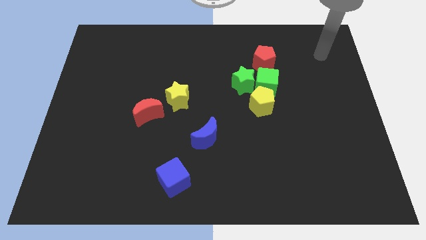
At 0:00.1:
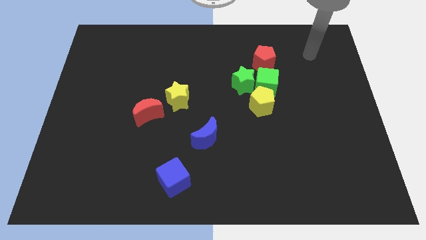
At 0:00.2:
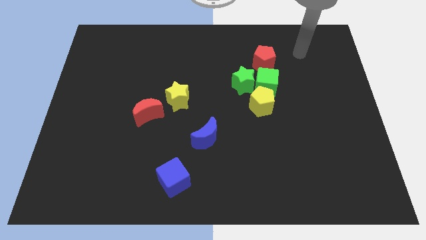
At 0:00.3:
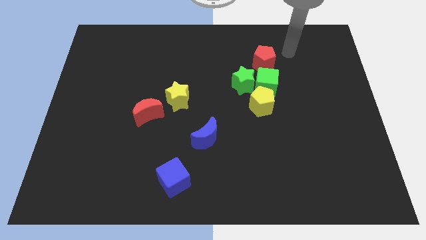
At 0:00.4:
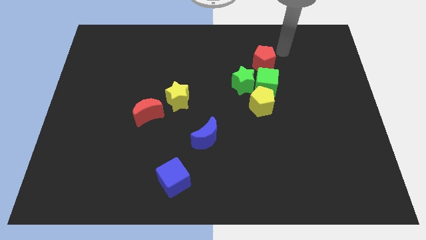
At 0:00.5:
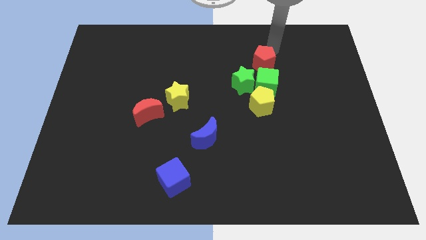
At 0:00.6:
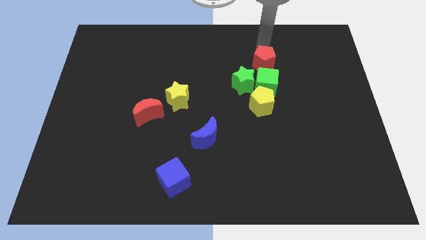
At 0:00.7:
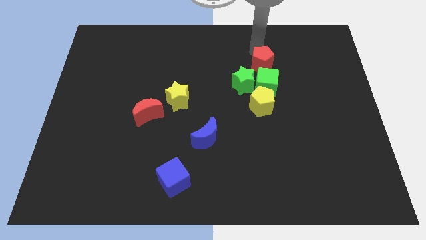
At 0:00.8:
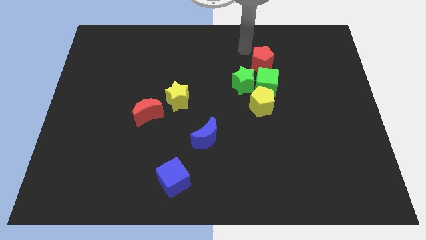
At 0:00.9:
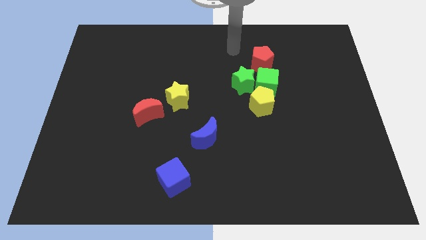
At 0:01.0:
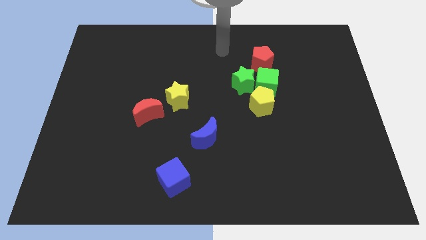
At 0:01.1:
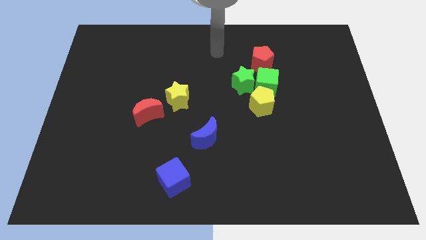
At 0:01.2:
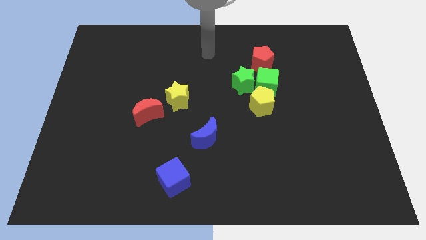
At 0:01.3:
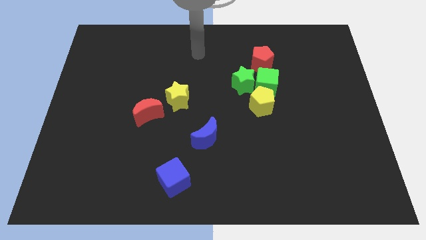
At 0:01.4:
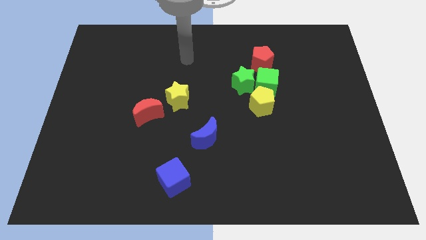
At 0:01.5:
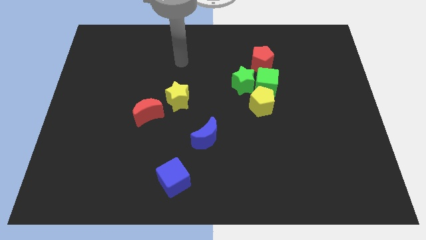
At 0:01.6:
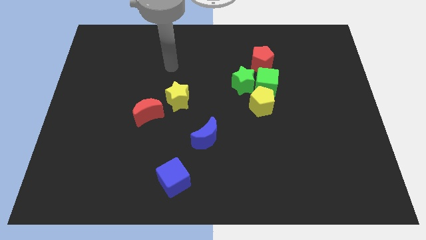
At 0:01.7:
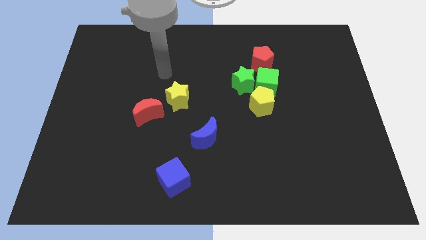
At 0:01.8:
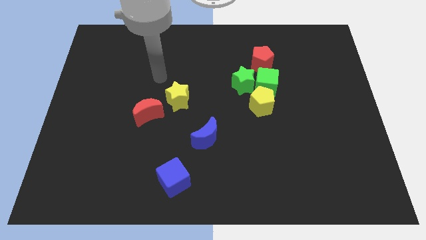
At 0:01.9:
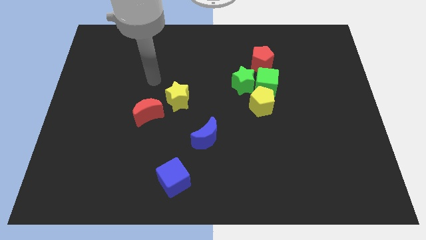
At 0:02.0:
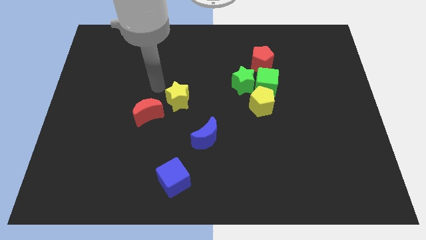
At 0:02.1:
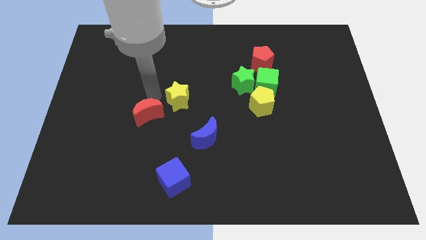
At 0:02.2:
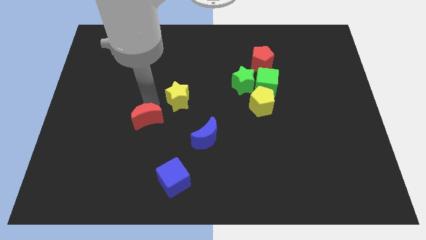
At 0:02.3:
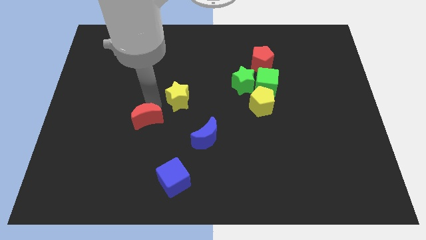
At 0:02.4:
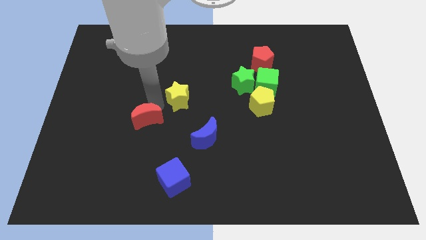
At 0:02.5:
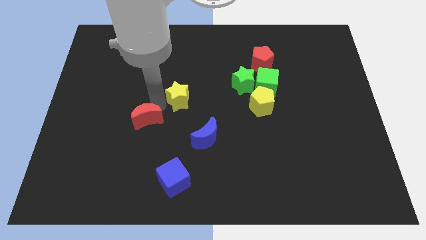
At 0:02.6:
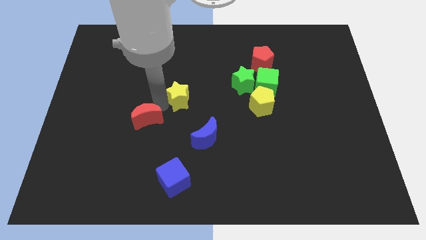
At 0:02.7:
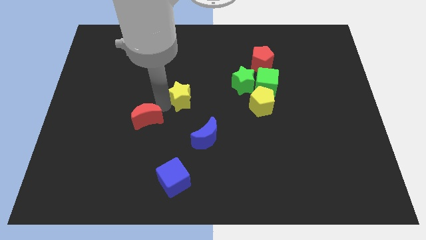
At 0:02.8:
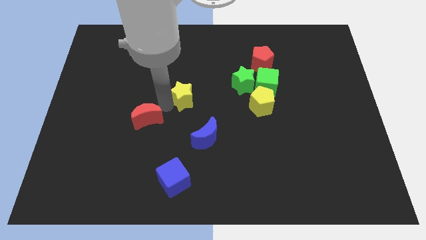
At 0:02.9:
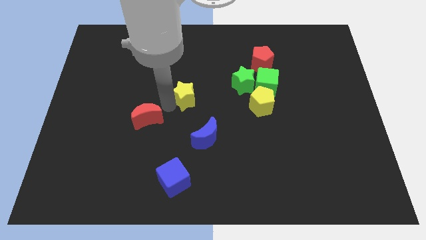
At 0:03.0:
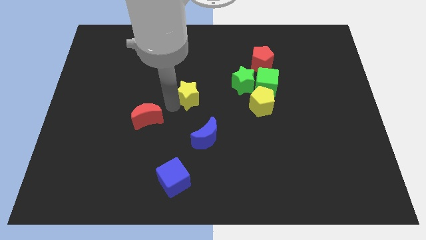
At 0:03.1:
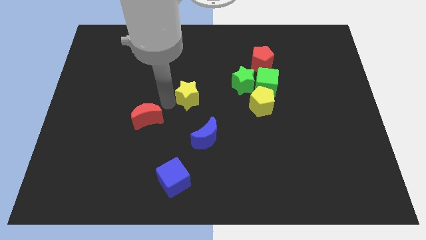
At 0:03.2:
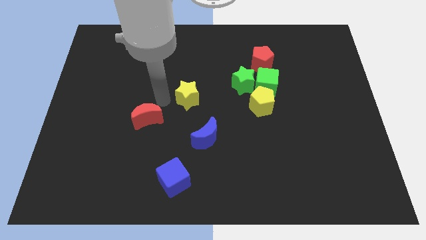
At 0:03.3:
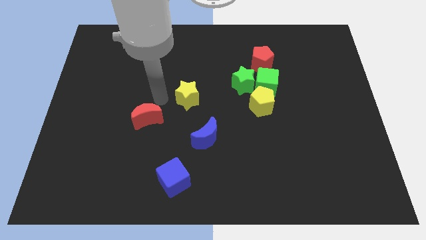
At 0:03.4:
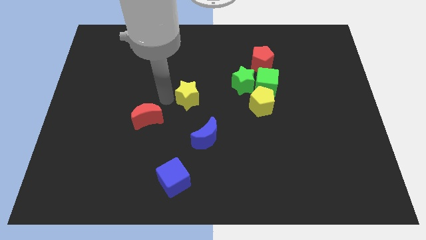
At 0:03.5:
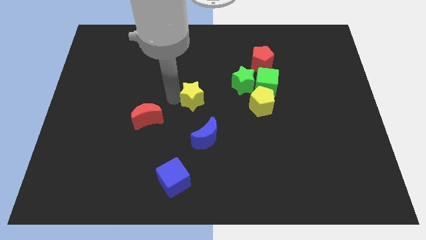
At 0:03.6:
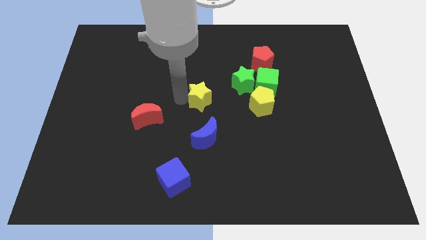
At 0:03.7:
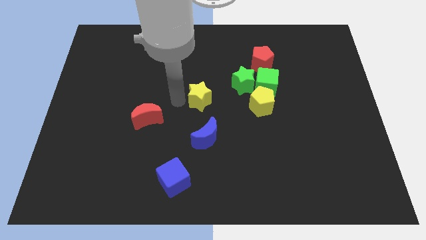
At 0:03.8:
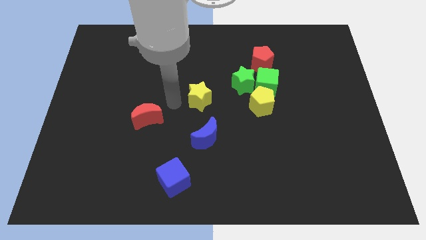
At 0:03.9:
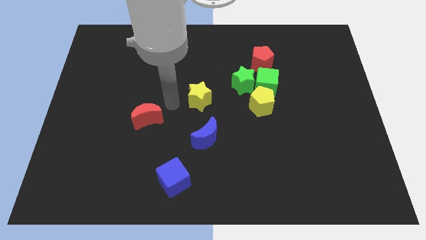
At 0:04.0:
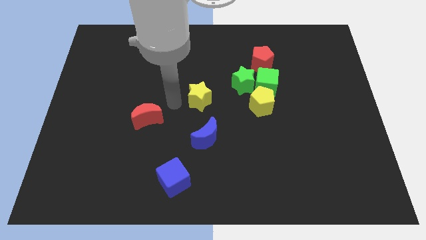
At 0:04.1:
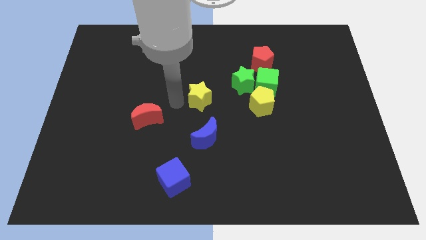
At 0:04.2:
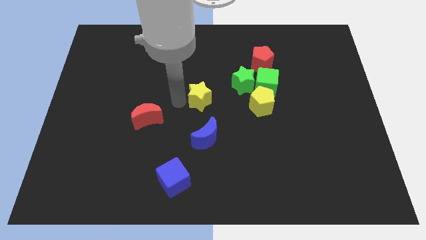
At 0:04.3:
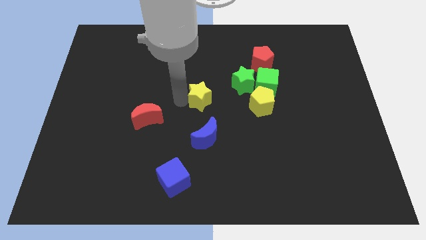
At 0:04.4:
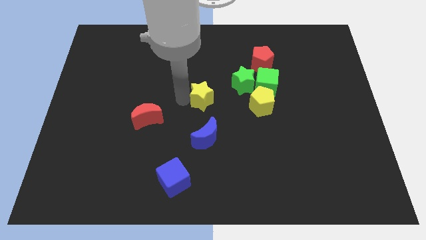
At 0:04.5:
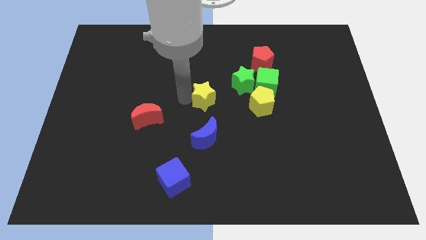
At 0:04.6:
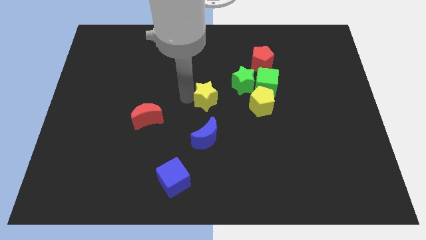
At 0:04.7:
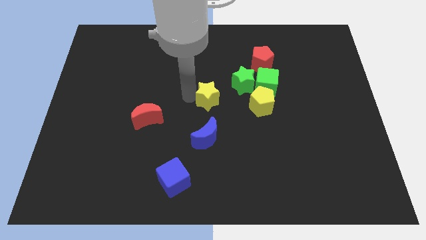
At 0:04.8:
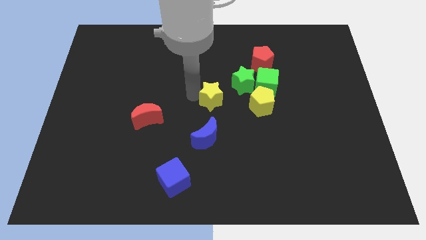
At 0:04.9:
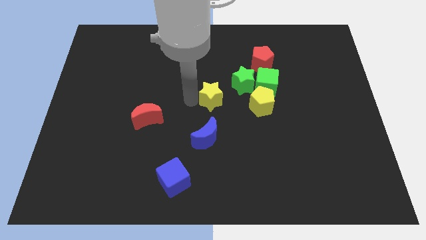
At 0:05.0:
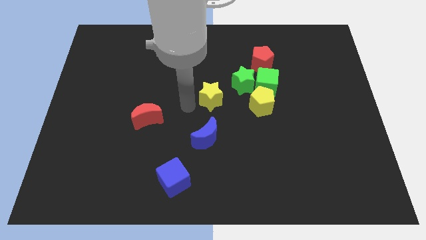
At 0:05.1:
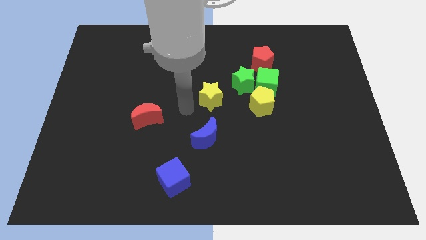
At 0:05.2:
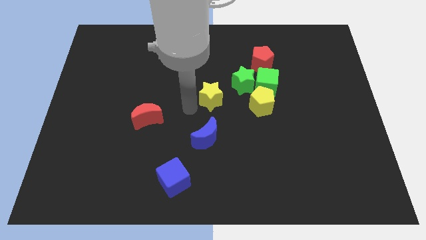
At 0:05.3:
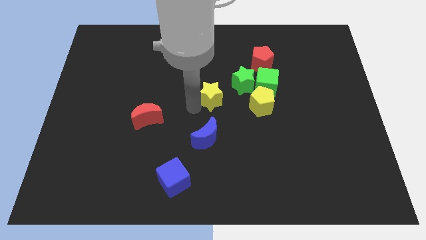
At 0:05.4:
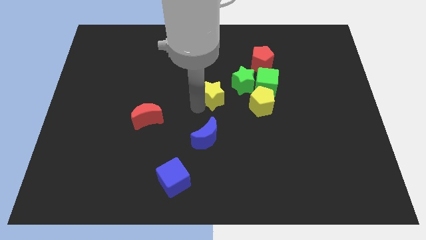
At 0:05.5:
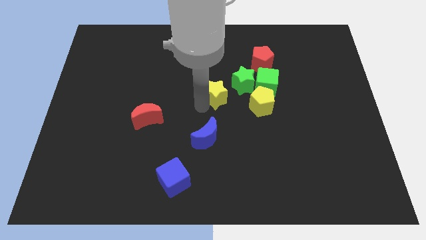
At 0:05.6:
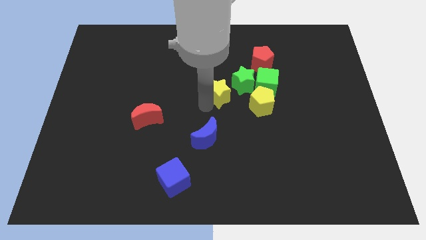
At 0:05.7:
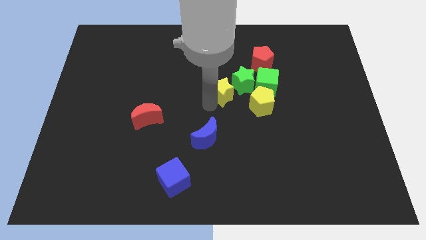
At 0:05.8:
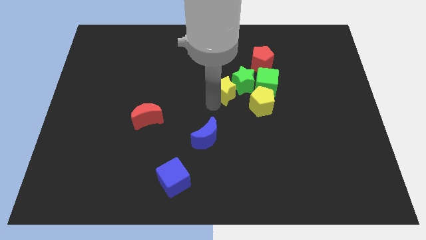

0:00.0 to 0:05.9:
put the yellow star towards the green star
